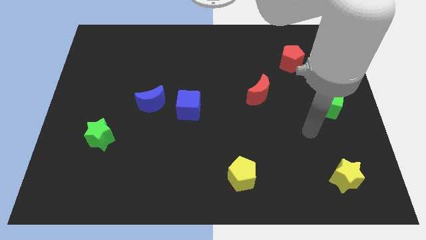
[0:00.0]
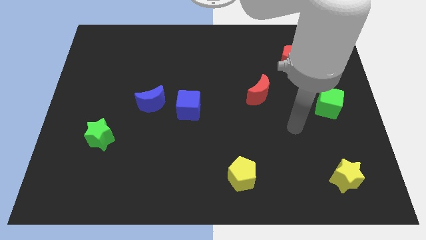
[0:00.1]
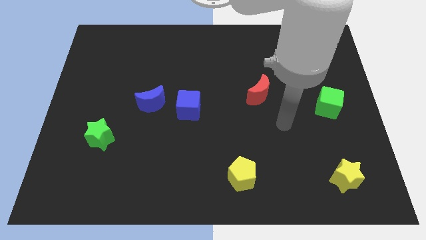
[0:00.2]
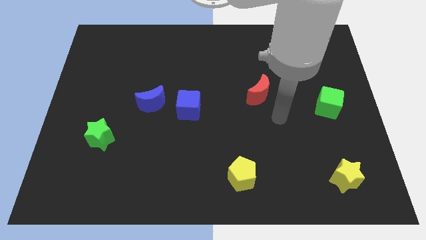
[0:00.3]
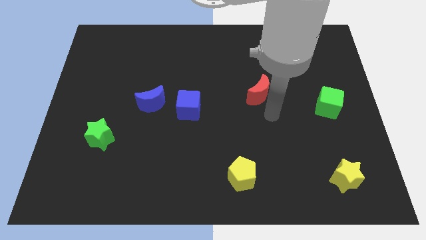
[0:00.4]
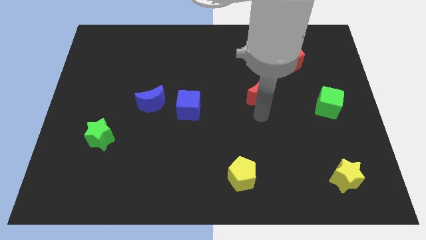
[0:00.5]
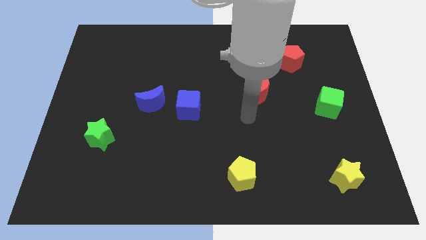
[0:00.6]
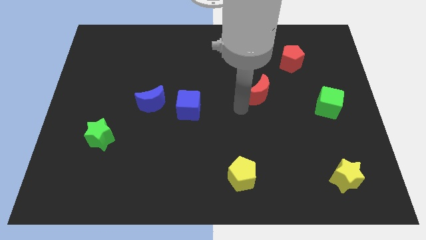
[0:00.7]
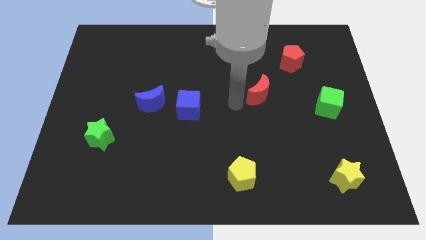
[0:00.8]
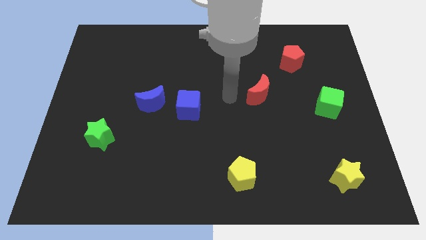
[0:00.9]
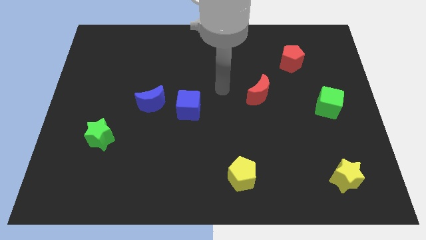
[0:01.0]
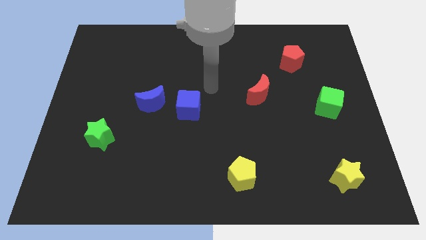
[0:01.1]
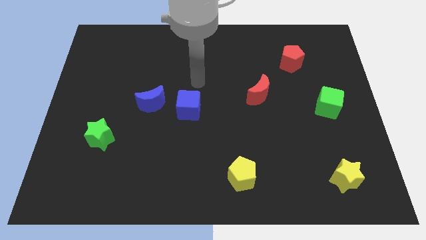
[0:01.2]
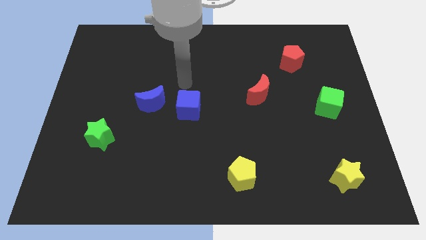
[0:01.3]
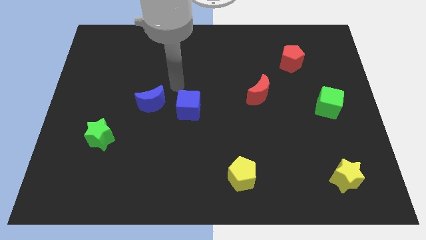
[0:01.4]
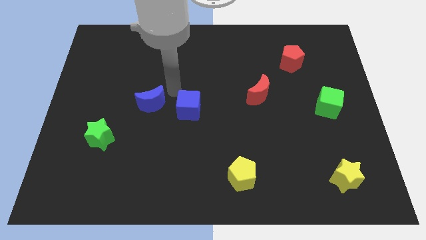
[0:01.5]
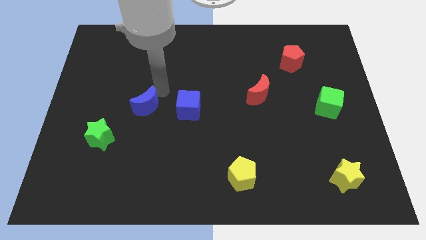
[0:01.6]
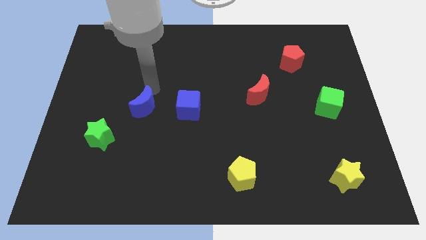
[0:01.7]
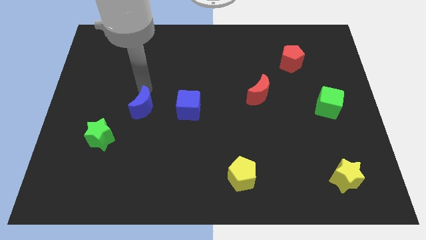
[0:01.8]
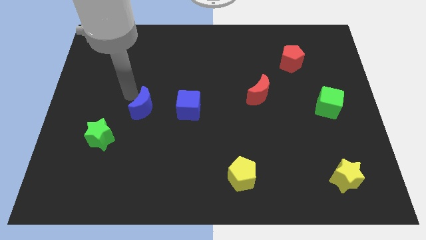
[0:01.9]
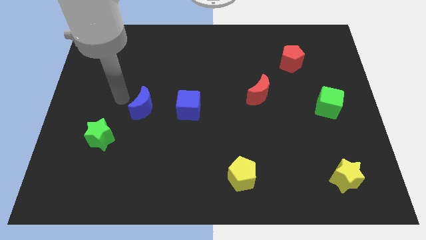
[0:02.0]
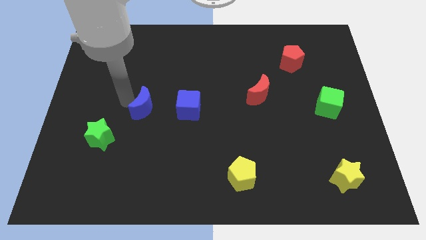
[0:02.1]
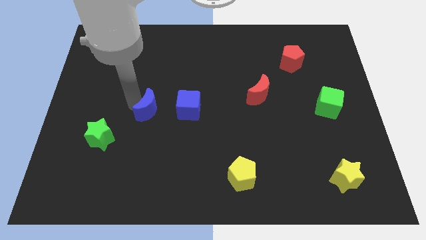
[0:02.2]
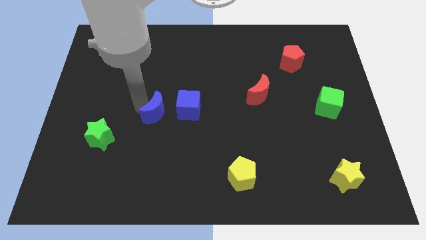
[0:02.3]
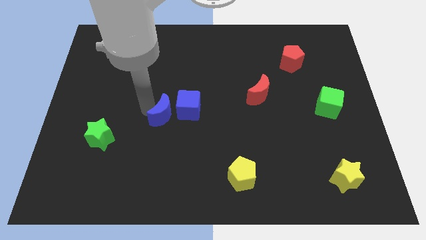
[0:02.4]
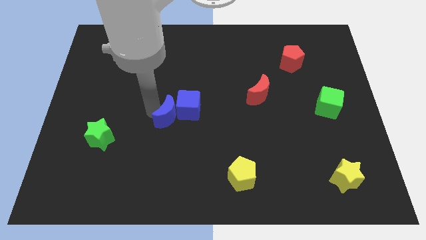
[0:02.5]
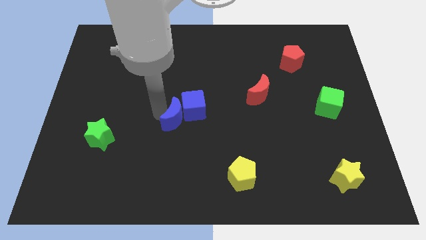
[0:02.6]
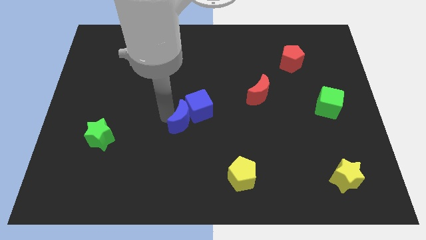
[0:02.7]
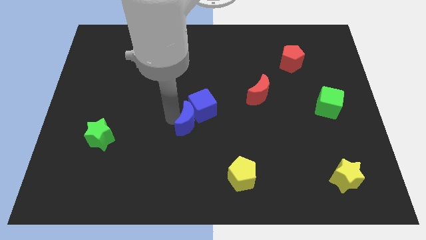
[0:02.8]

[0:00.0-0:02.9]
slide the blue moon to the right slightly

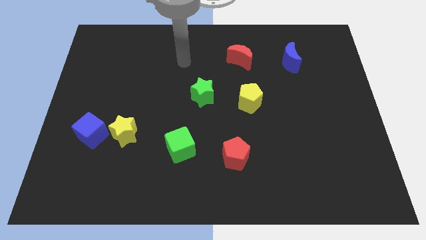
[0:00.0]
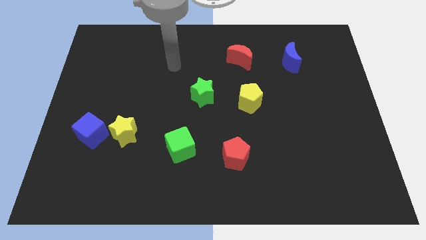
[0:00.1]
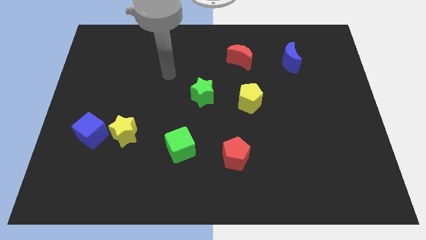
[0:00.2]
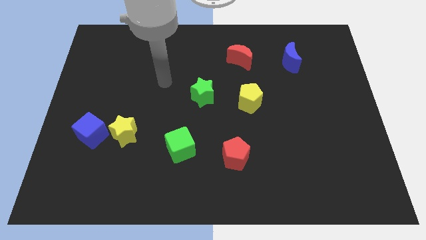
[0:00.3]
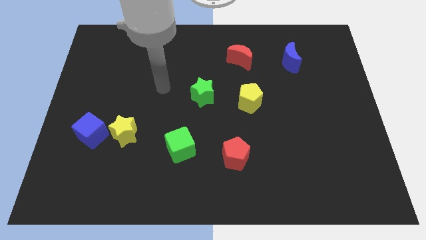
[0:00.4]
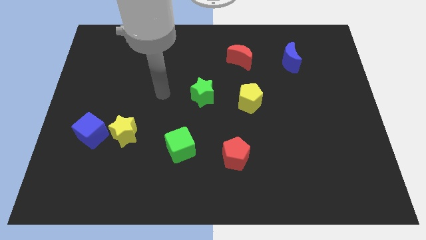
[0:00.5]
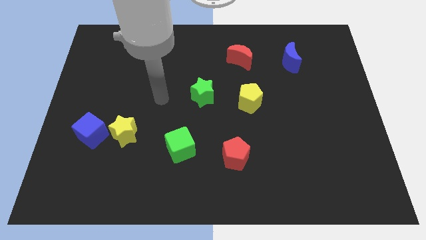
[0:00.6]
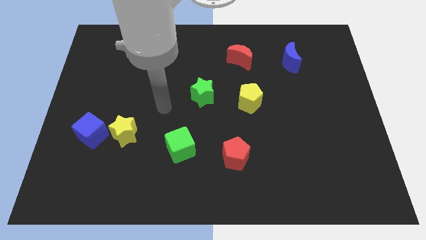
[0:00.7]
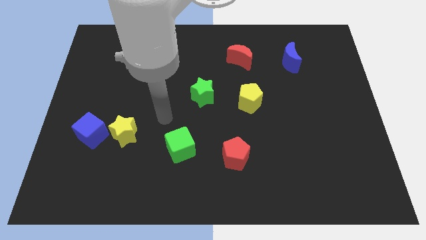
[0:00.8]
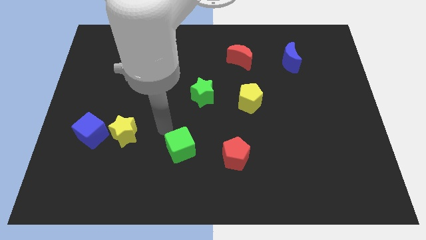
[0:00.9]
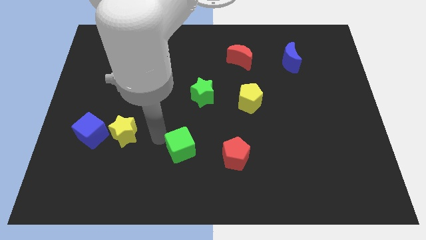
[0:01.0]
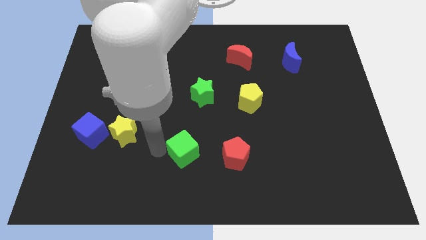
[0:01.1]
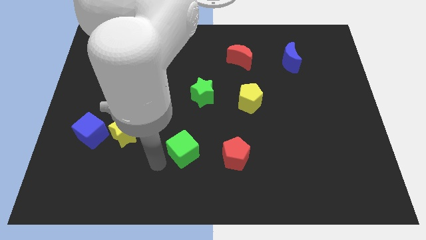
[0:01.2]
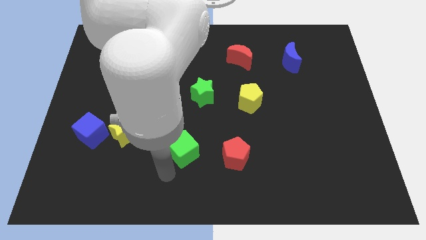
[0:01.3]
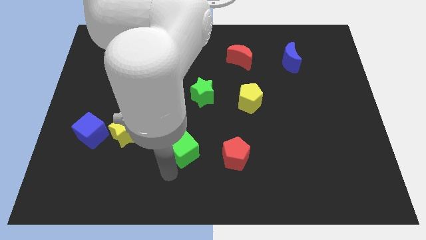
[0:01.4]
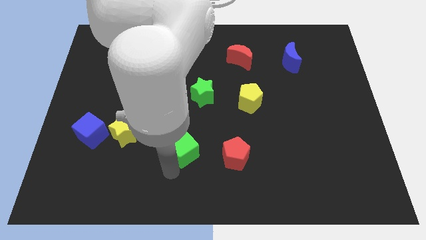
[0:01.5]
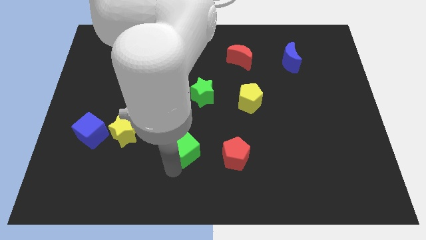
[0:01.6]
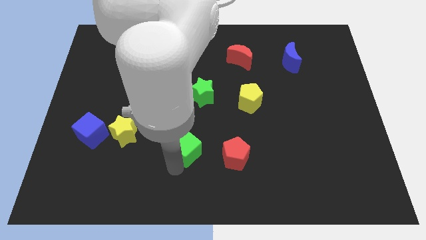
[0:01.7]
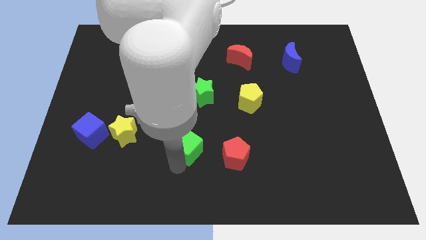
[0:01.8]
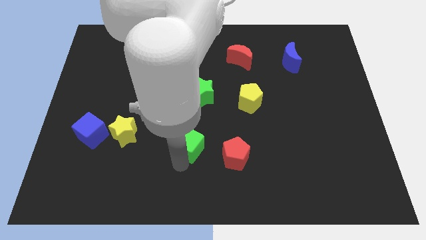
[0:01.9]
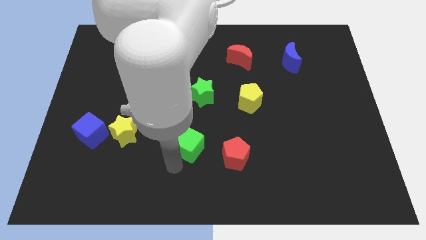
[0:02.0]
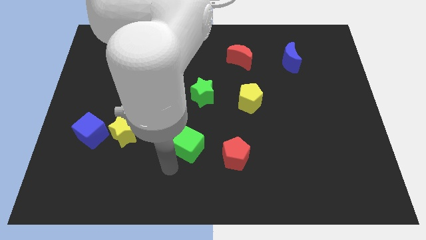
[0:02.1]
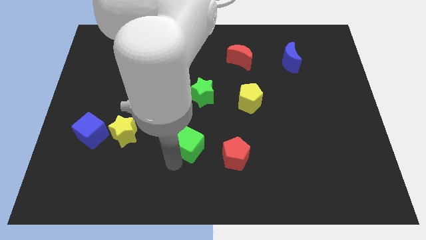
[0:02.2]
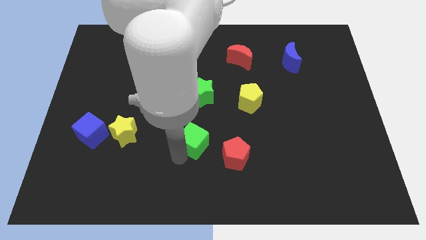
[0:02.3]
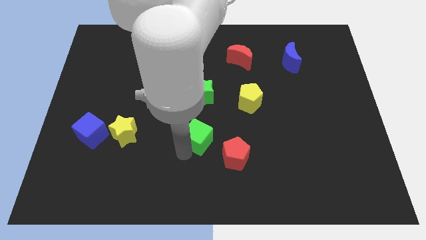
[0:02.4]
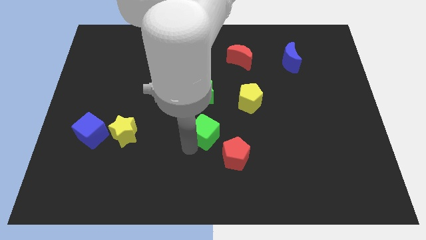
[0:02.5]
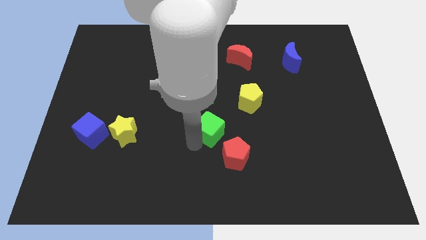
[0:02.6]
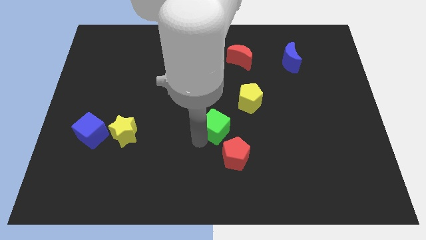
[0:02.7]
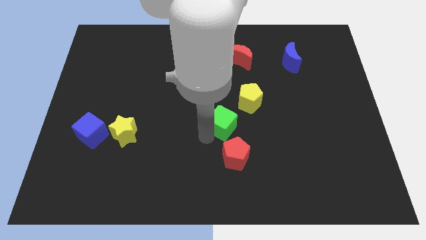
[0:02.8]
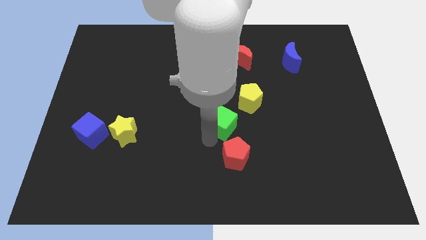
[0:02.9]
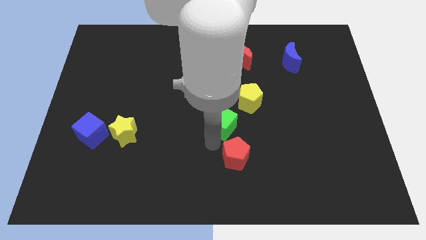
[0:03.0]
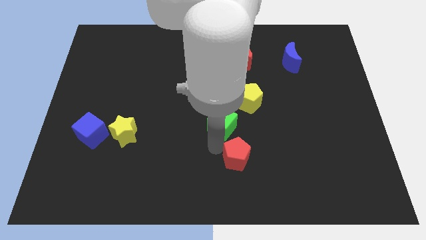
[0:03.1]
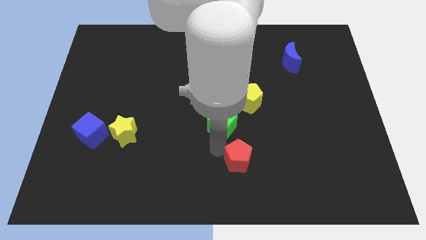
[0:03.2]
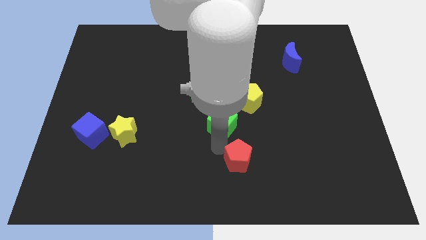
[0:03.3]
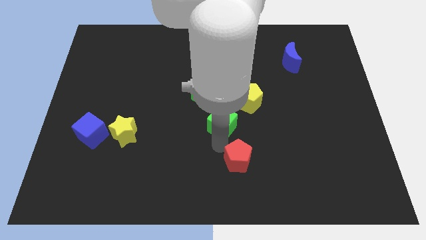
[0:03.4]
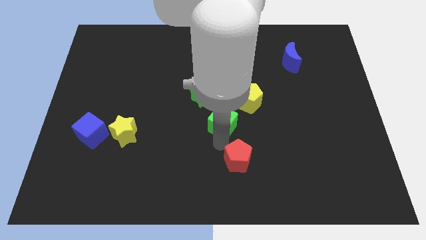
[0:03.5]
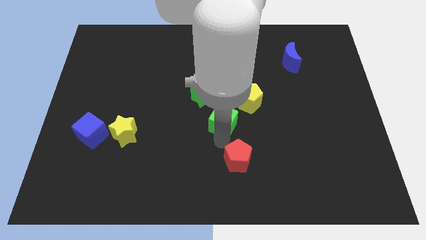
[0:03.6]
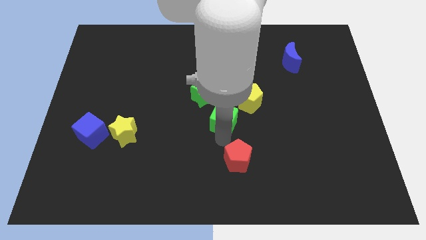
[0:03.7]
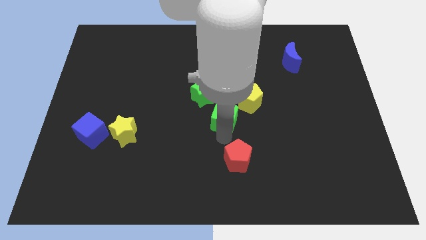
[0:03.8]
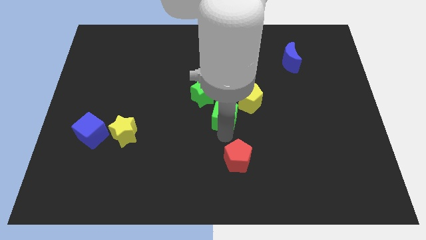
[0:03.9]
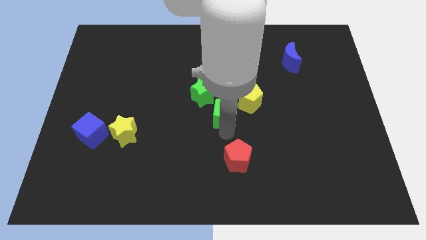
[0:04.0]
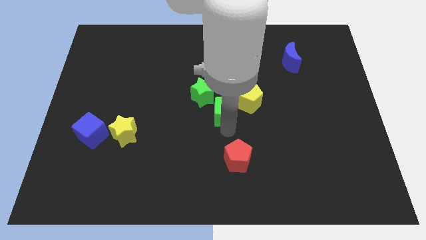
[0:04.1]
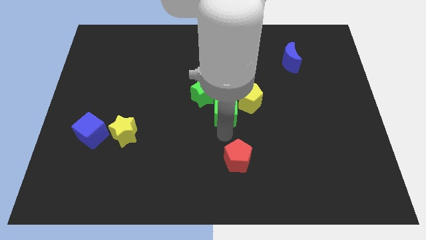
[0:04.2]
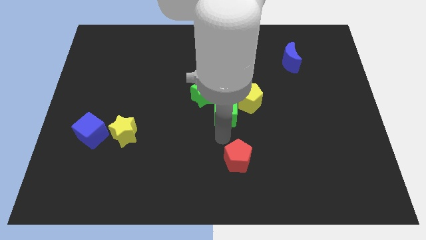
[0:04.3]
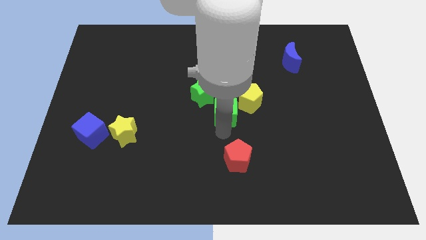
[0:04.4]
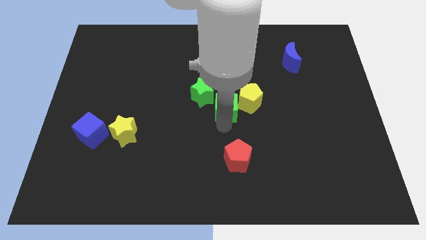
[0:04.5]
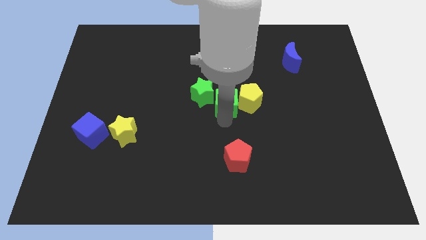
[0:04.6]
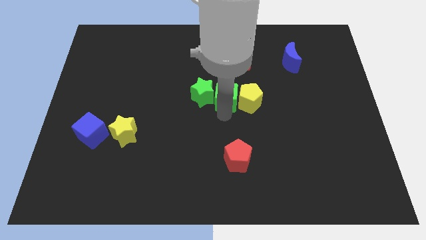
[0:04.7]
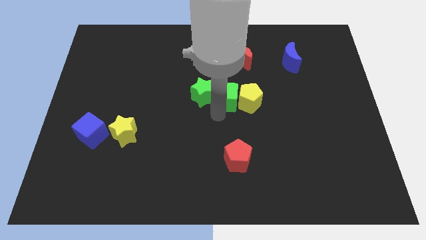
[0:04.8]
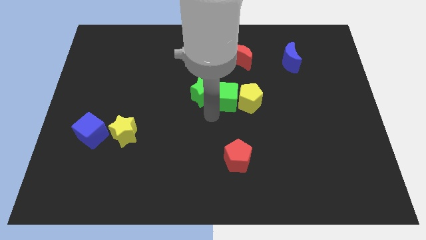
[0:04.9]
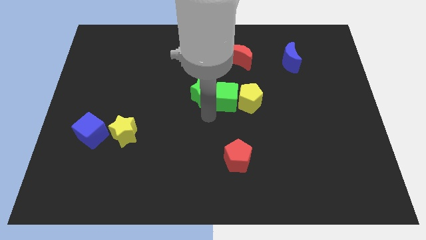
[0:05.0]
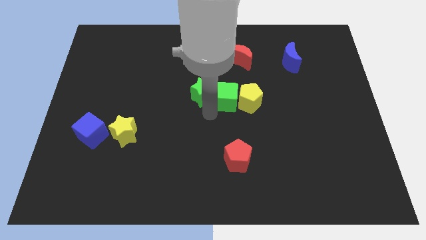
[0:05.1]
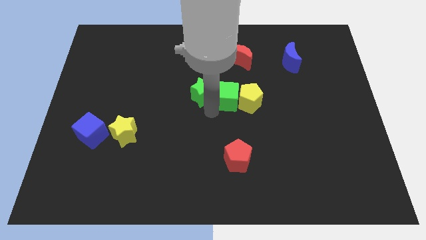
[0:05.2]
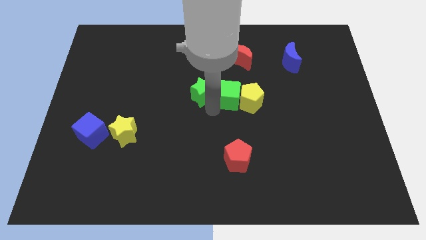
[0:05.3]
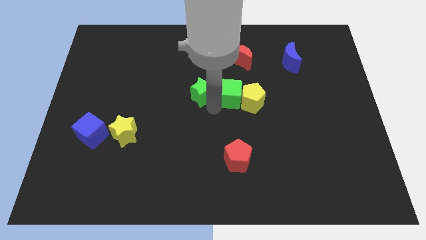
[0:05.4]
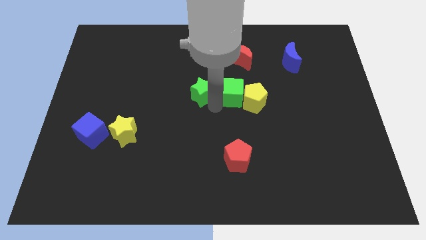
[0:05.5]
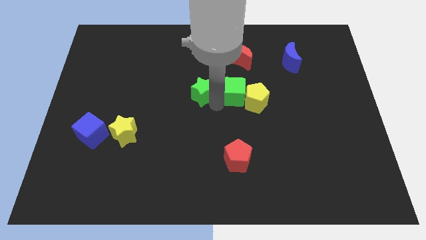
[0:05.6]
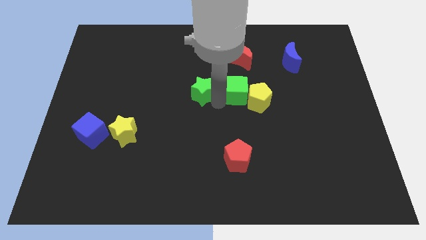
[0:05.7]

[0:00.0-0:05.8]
move the green cube upwards and then to the right
